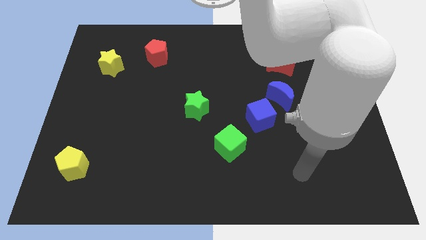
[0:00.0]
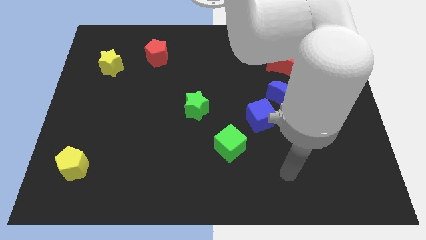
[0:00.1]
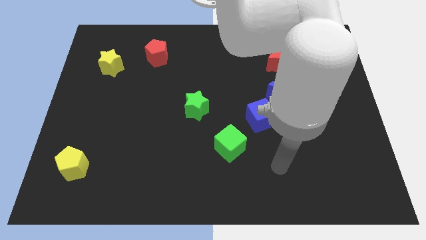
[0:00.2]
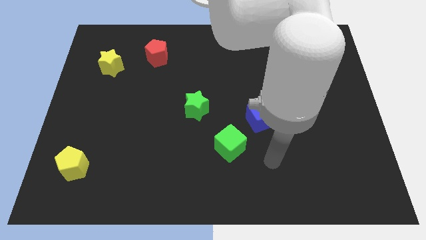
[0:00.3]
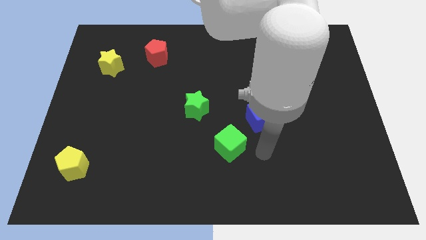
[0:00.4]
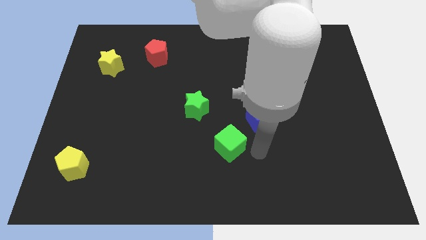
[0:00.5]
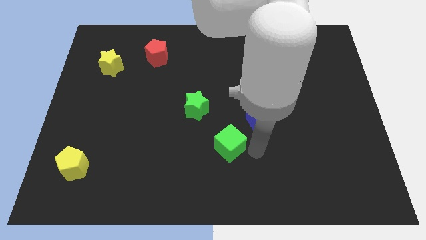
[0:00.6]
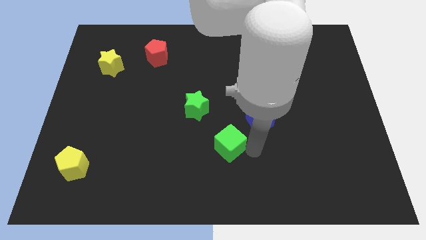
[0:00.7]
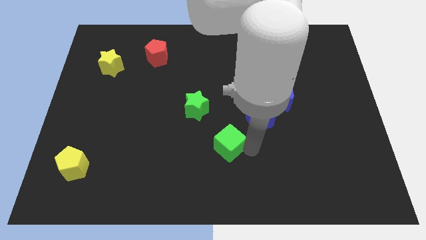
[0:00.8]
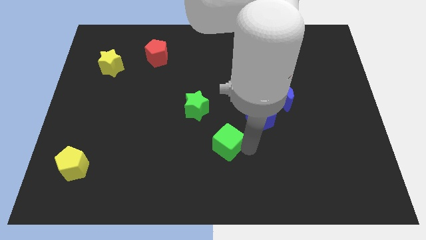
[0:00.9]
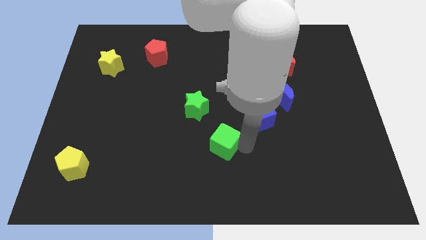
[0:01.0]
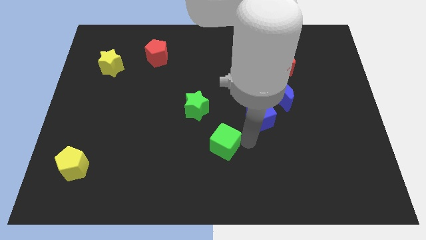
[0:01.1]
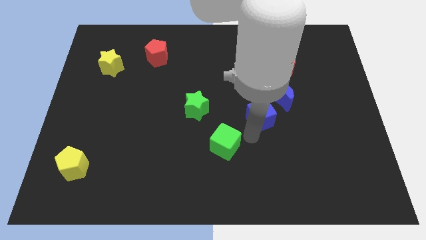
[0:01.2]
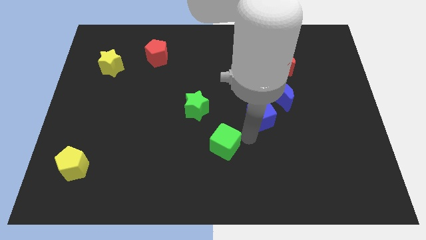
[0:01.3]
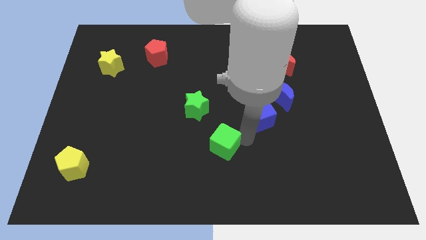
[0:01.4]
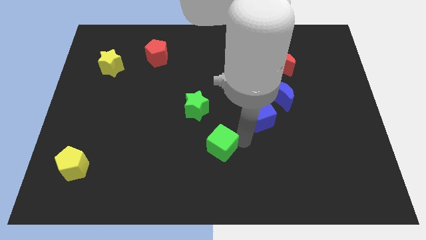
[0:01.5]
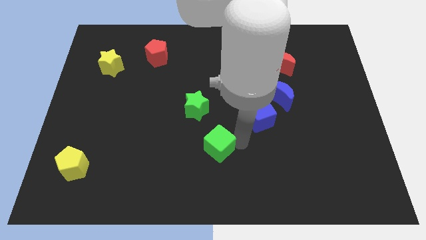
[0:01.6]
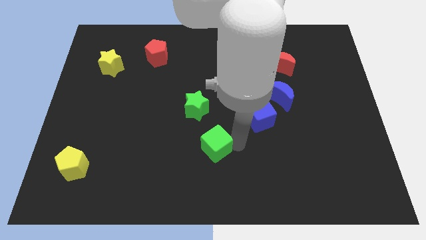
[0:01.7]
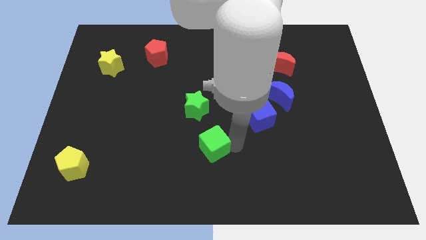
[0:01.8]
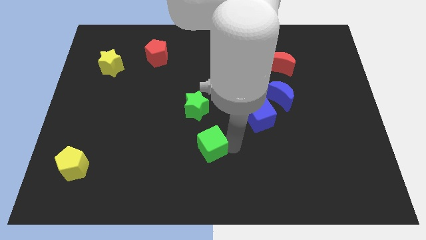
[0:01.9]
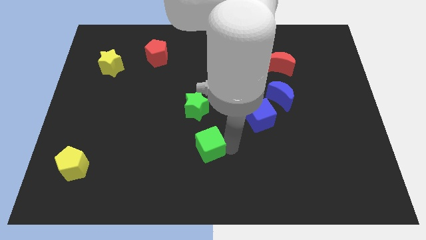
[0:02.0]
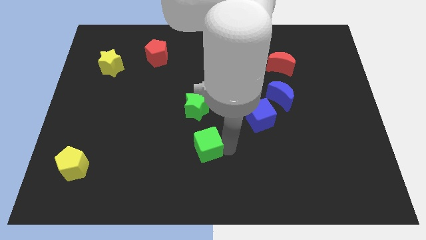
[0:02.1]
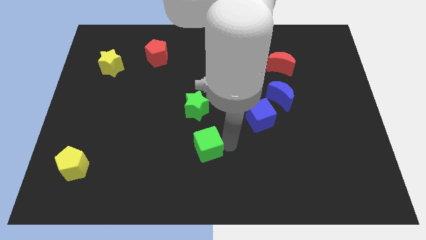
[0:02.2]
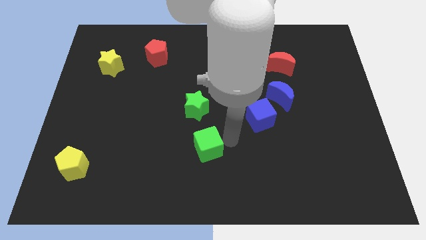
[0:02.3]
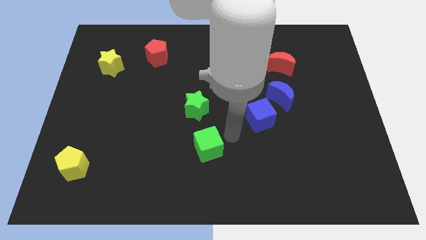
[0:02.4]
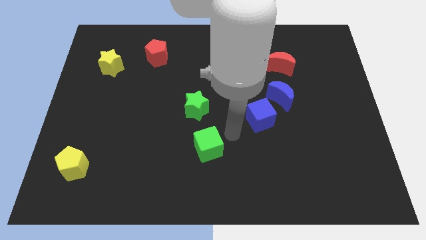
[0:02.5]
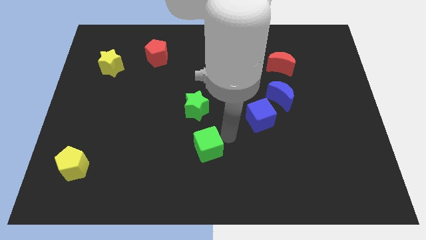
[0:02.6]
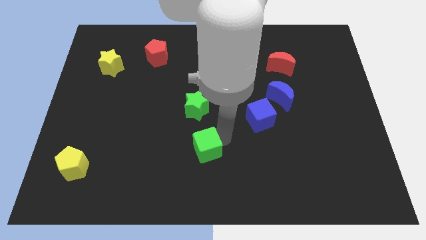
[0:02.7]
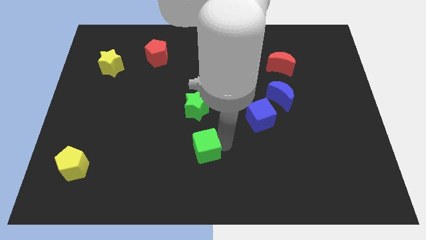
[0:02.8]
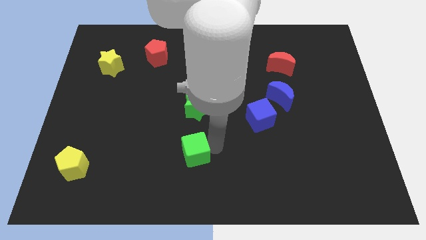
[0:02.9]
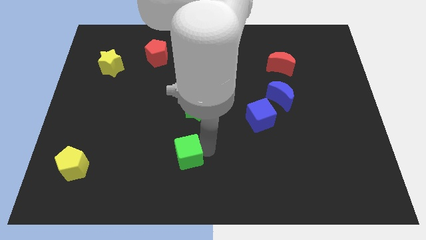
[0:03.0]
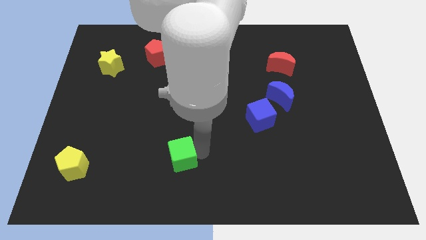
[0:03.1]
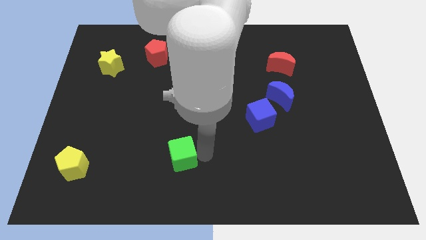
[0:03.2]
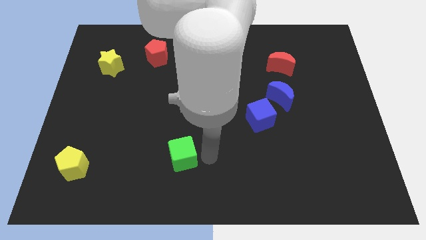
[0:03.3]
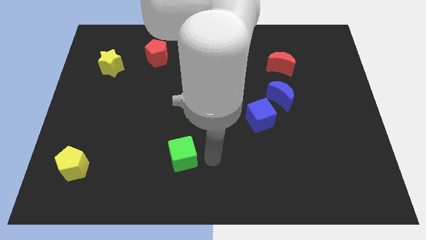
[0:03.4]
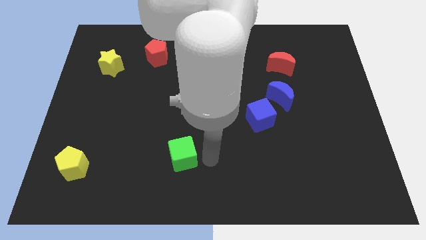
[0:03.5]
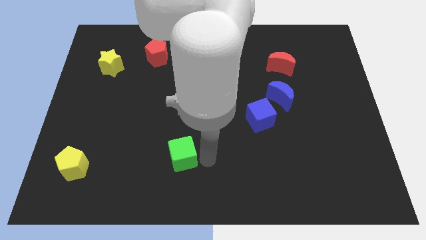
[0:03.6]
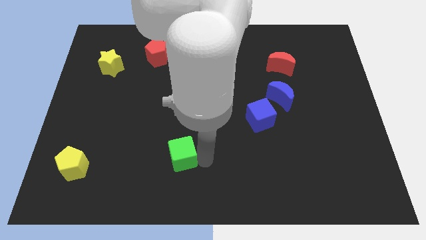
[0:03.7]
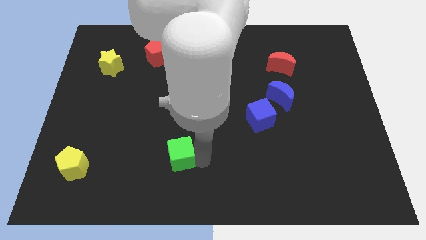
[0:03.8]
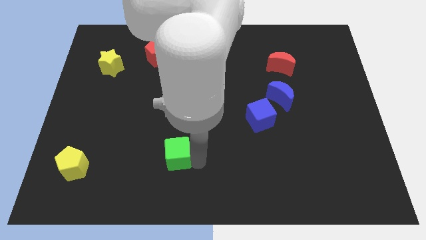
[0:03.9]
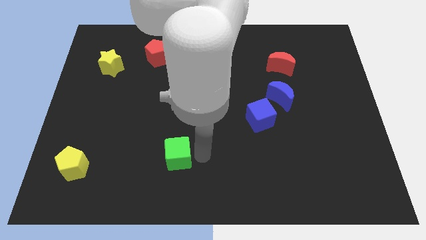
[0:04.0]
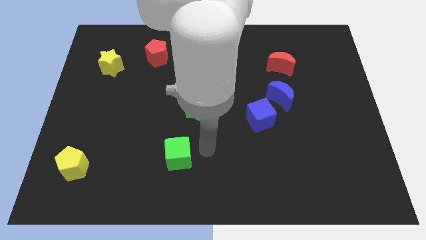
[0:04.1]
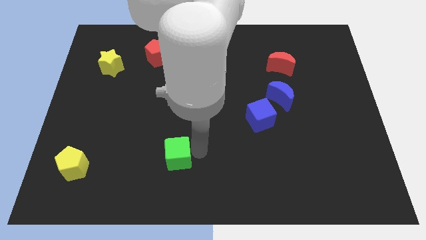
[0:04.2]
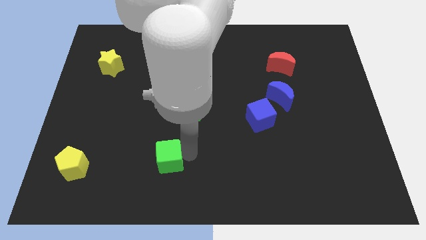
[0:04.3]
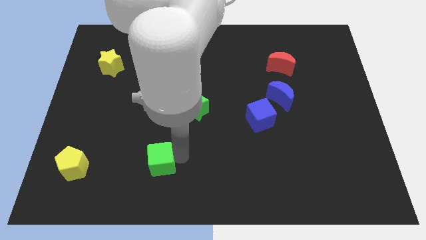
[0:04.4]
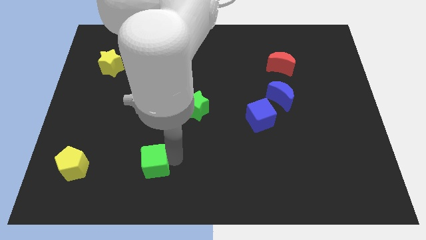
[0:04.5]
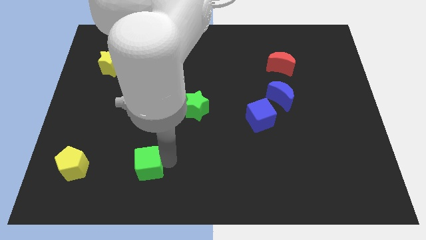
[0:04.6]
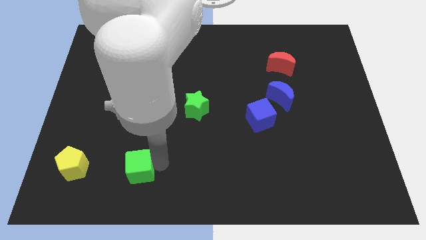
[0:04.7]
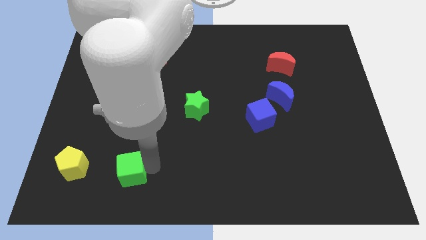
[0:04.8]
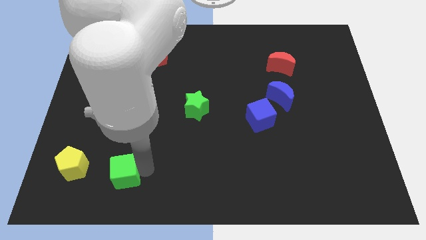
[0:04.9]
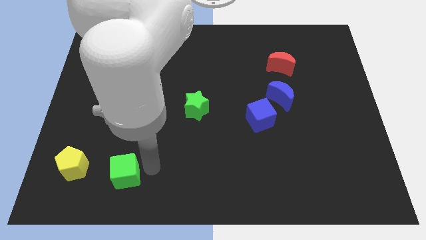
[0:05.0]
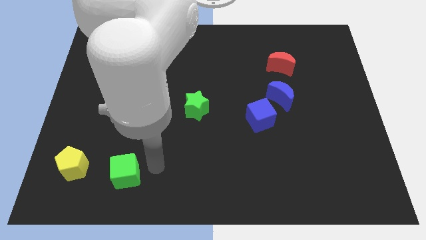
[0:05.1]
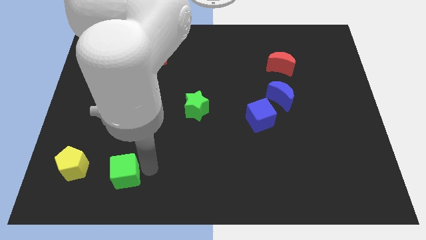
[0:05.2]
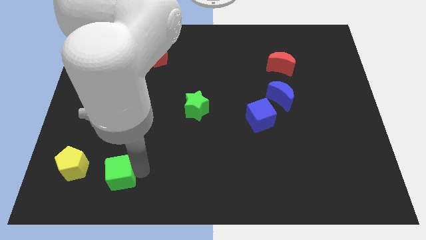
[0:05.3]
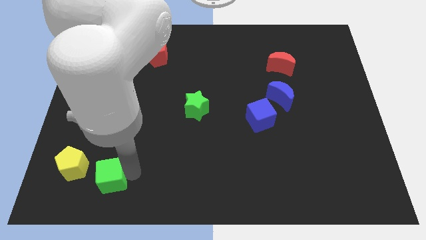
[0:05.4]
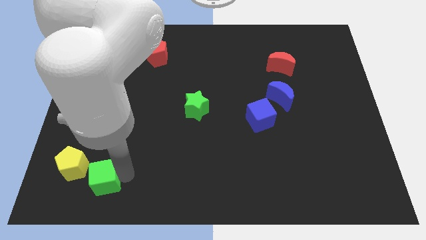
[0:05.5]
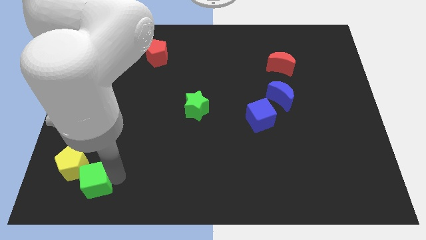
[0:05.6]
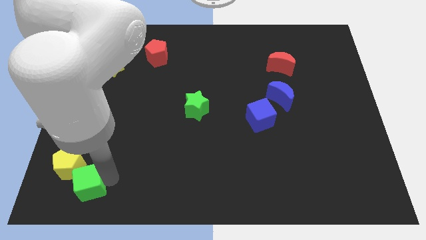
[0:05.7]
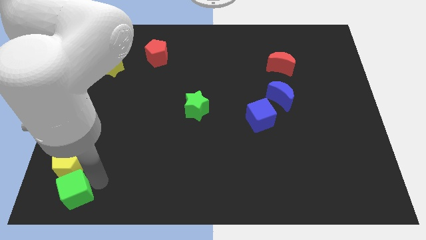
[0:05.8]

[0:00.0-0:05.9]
push the green cube to the bottom left of the board

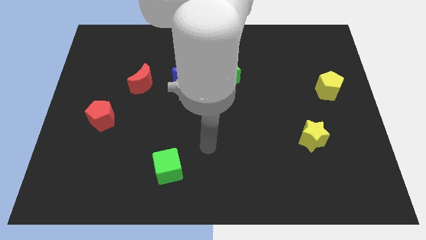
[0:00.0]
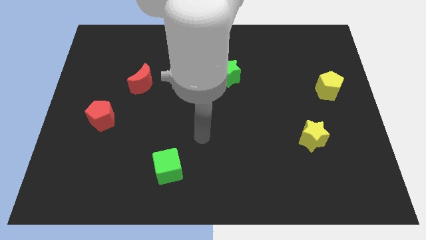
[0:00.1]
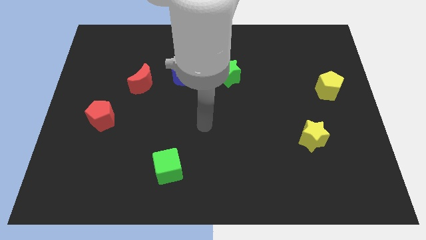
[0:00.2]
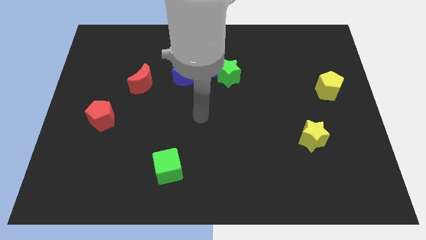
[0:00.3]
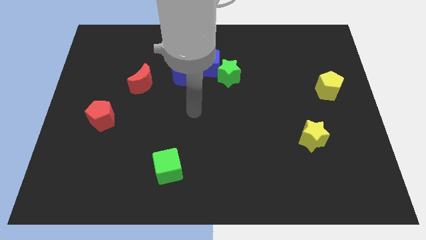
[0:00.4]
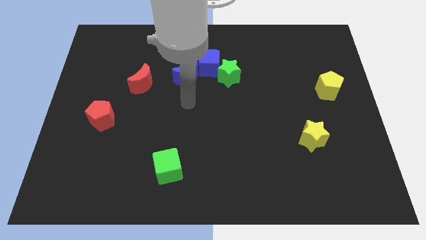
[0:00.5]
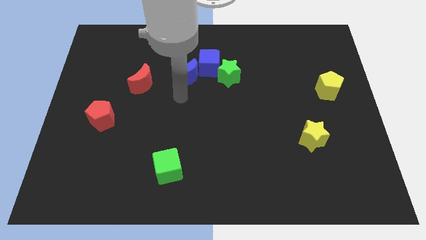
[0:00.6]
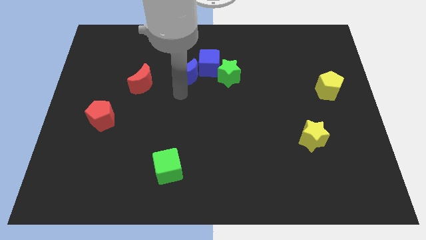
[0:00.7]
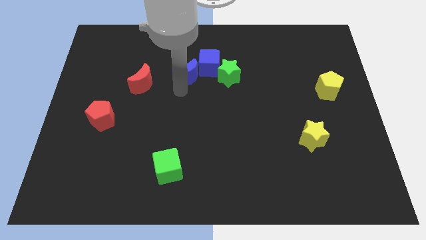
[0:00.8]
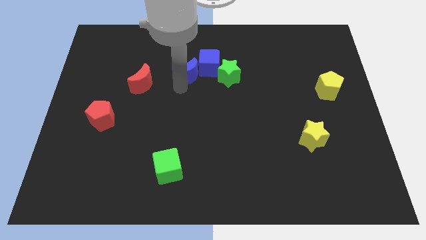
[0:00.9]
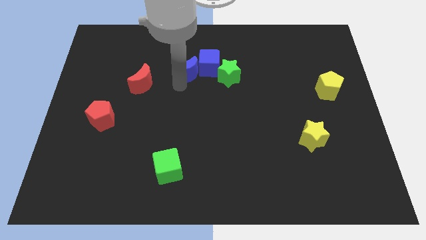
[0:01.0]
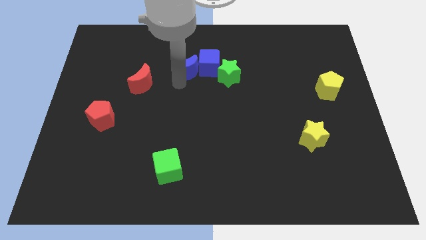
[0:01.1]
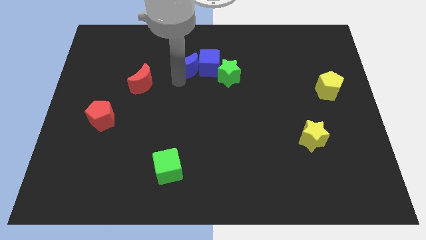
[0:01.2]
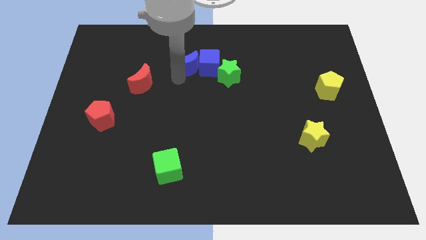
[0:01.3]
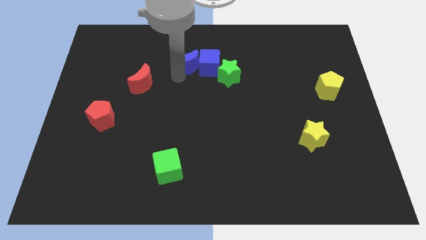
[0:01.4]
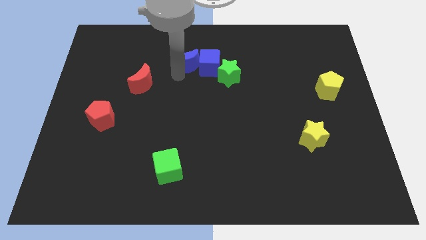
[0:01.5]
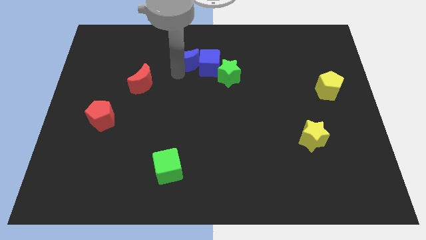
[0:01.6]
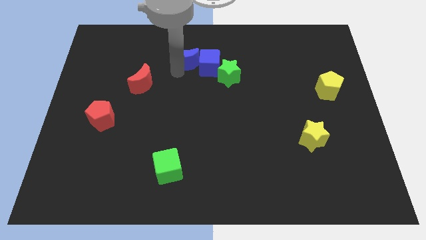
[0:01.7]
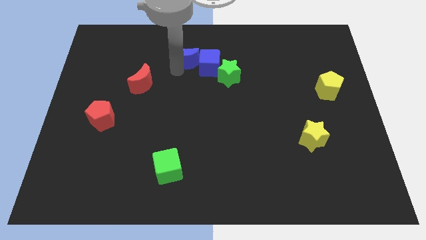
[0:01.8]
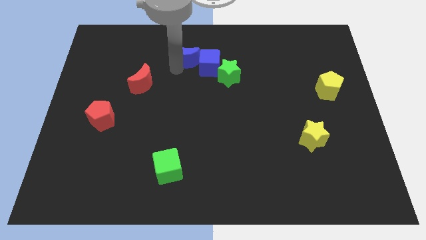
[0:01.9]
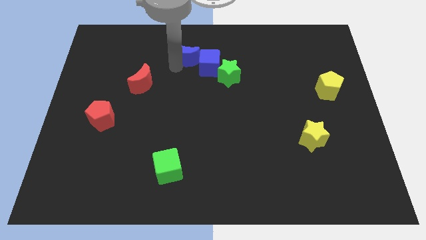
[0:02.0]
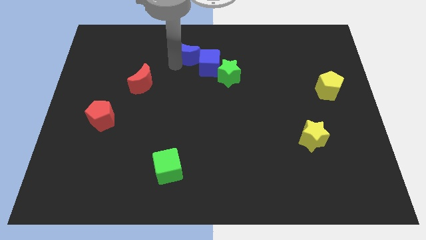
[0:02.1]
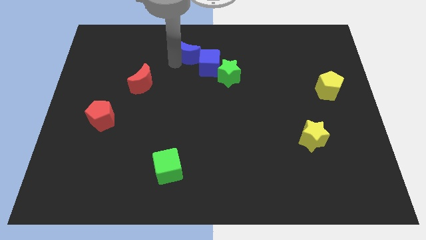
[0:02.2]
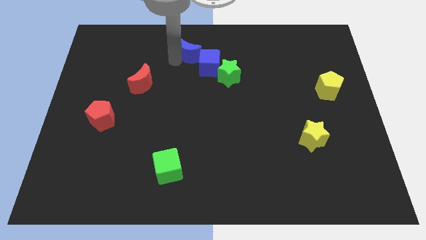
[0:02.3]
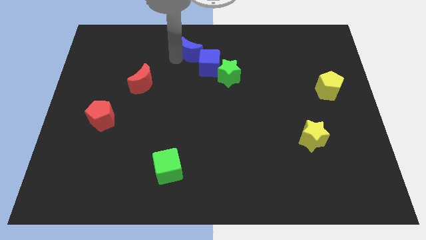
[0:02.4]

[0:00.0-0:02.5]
slide the blue moon to the top side
